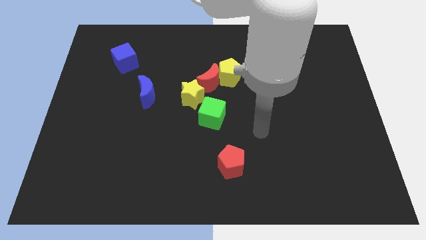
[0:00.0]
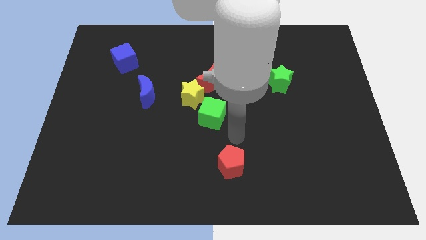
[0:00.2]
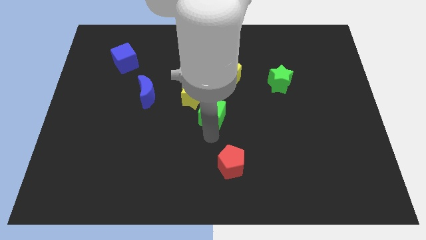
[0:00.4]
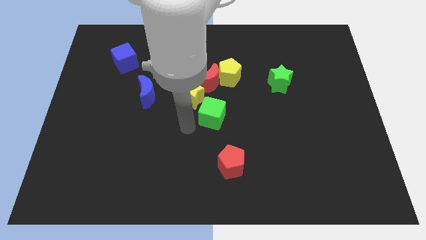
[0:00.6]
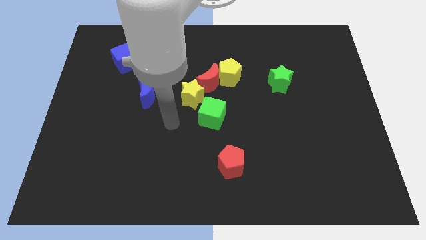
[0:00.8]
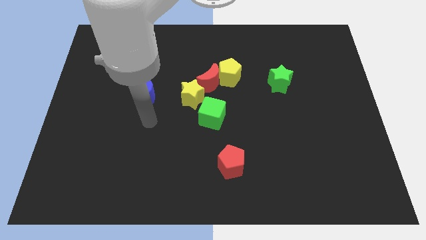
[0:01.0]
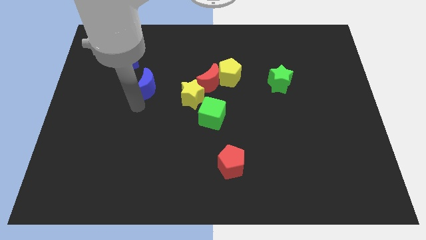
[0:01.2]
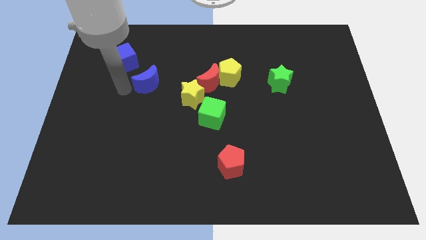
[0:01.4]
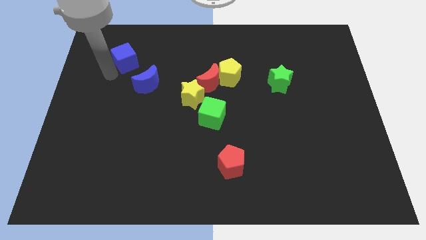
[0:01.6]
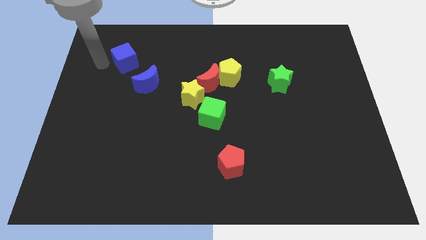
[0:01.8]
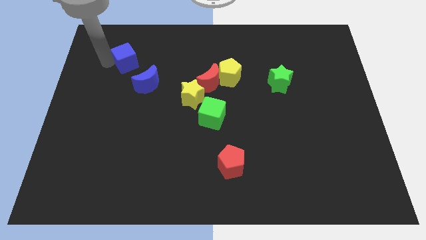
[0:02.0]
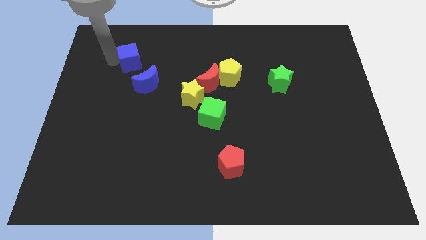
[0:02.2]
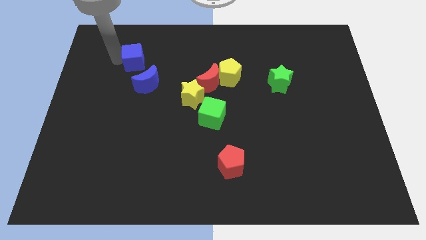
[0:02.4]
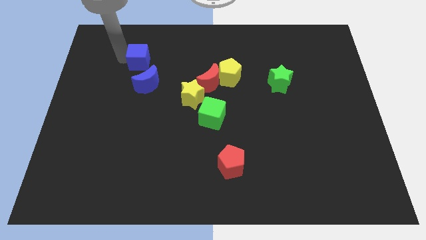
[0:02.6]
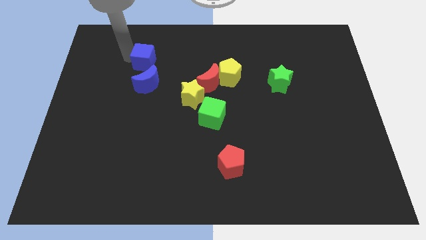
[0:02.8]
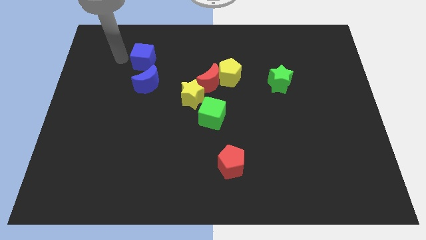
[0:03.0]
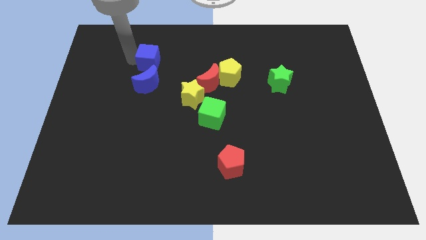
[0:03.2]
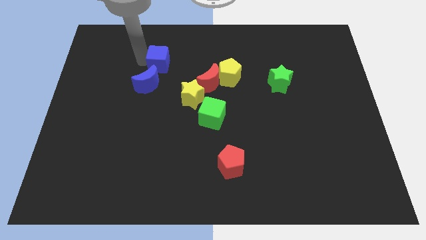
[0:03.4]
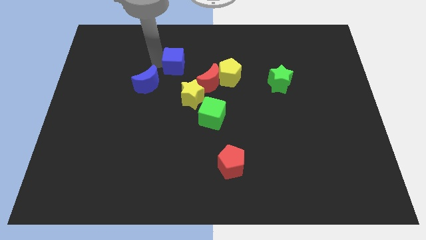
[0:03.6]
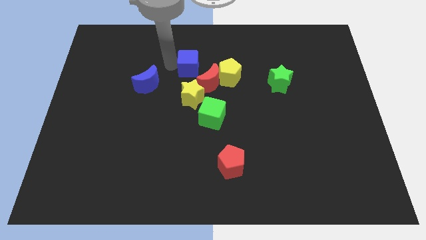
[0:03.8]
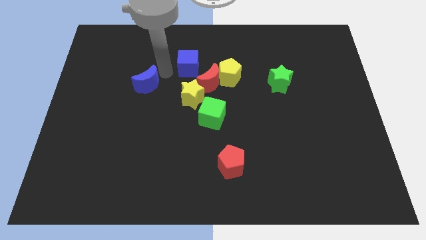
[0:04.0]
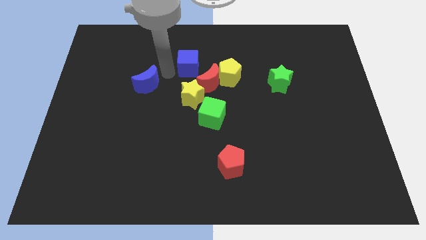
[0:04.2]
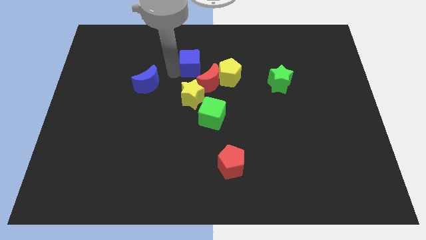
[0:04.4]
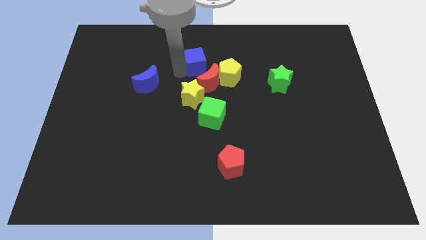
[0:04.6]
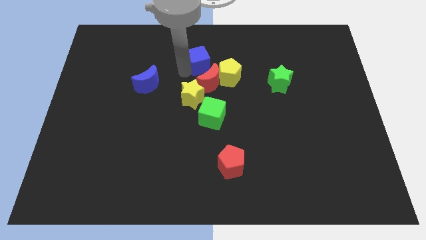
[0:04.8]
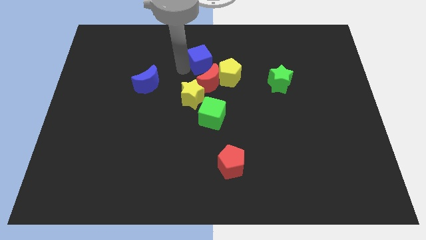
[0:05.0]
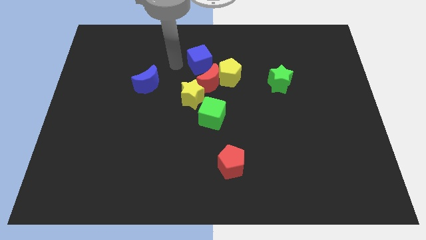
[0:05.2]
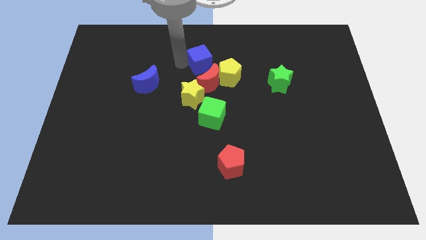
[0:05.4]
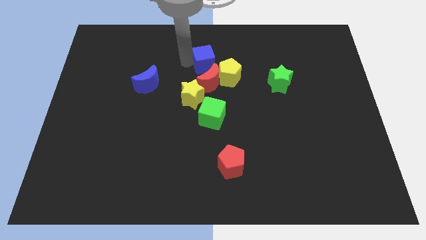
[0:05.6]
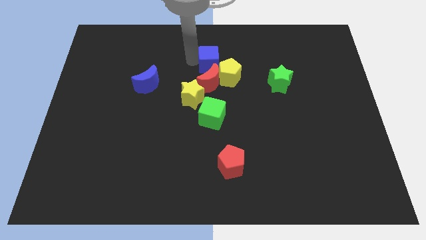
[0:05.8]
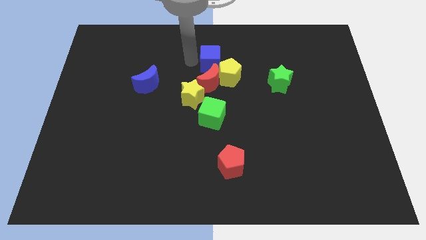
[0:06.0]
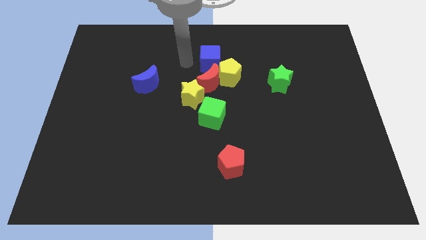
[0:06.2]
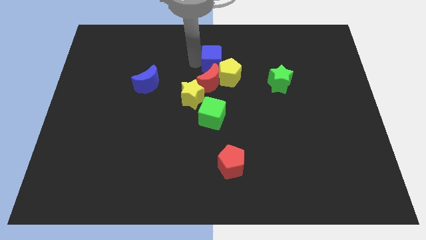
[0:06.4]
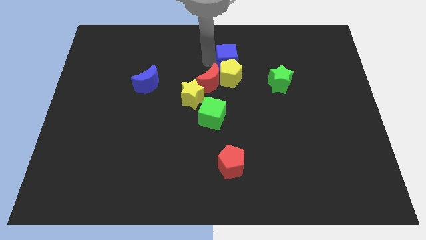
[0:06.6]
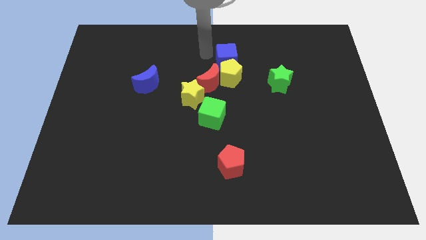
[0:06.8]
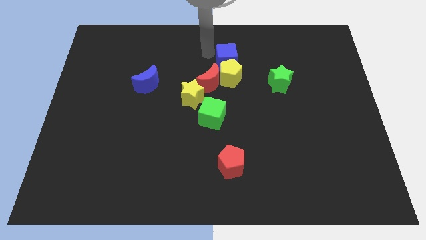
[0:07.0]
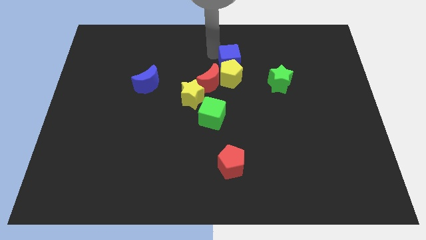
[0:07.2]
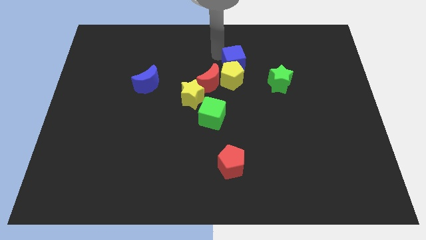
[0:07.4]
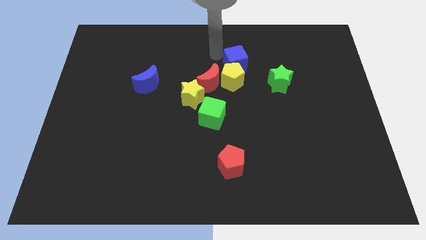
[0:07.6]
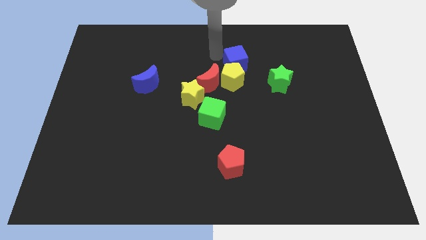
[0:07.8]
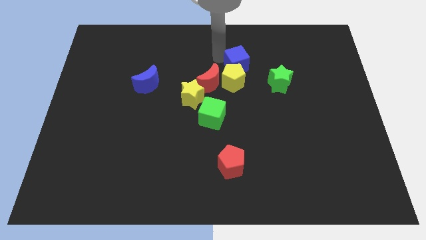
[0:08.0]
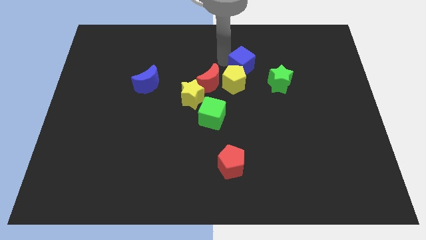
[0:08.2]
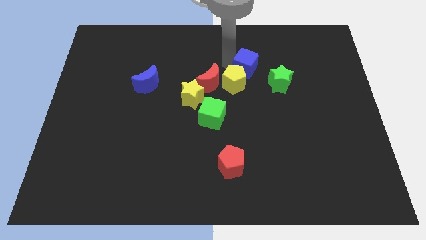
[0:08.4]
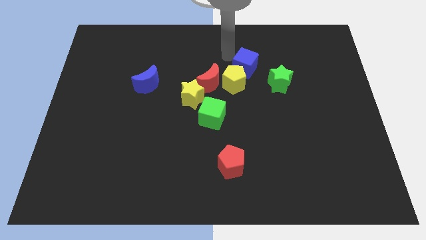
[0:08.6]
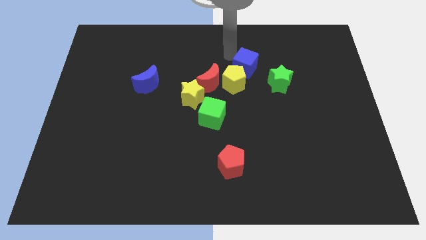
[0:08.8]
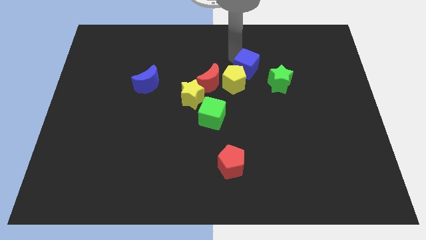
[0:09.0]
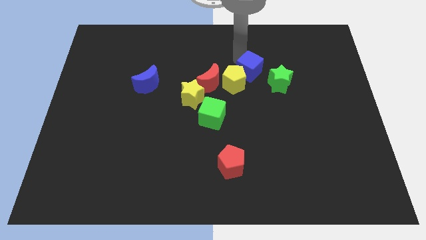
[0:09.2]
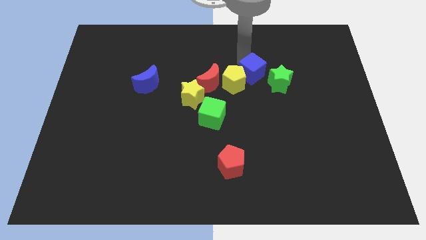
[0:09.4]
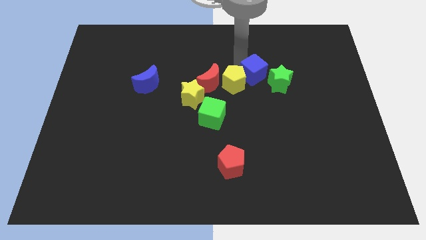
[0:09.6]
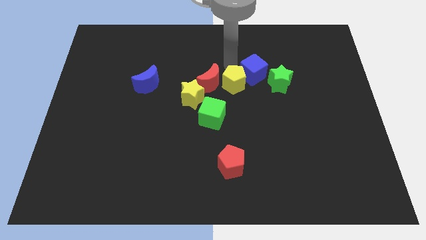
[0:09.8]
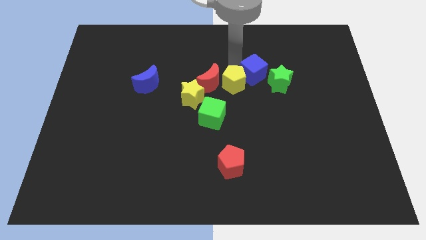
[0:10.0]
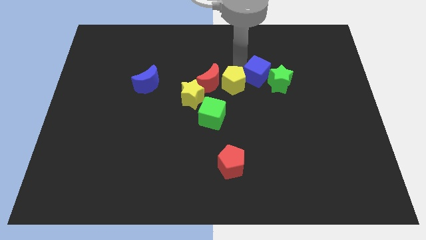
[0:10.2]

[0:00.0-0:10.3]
move the blue cube to the green star

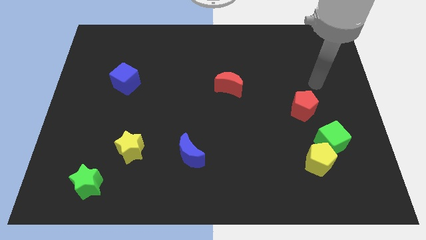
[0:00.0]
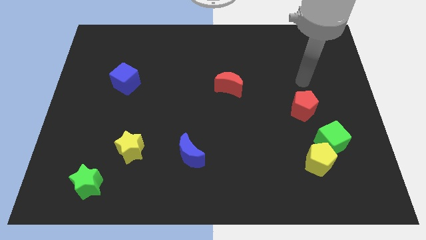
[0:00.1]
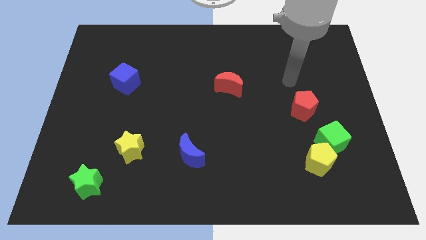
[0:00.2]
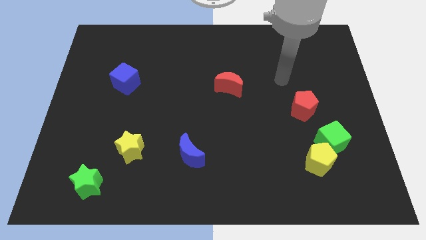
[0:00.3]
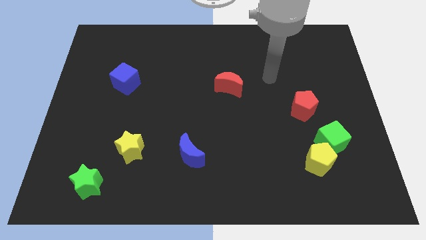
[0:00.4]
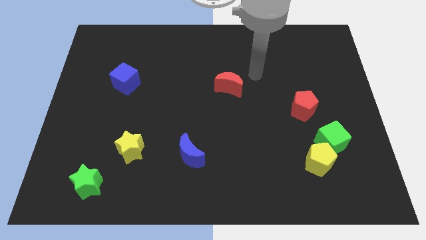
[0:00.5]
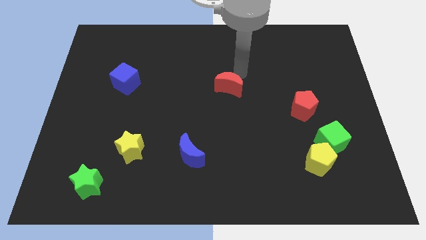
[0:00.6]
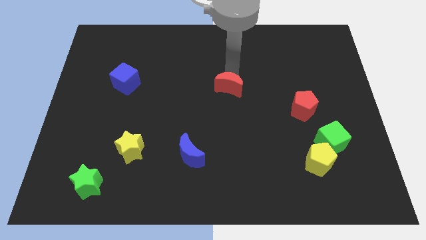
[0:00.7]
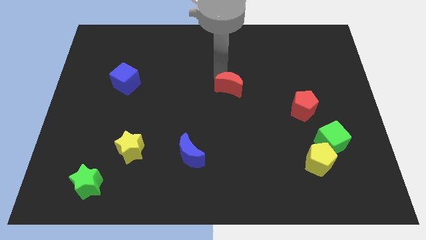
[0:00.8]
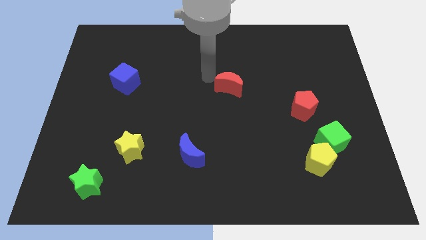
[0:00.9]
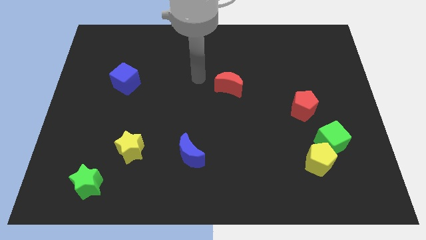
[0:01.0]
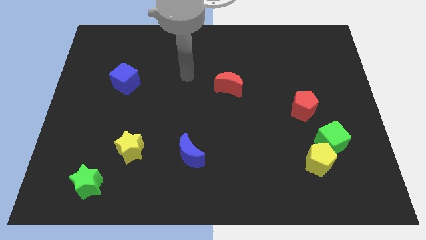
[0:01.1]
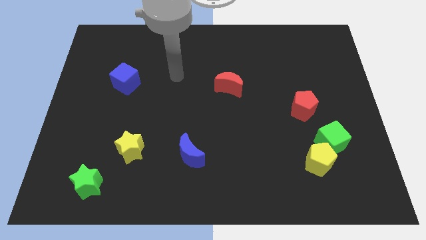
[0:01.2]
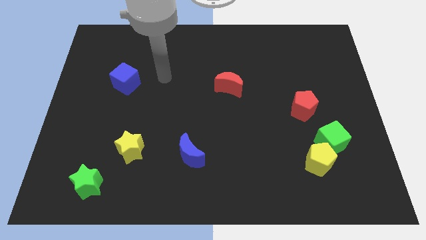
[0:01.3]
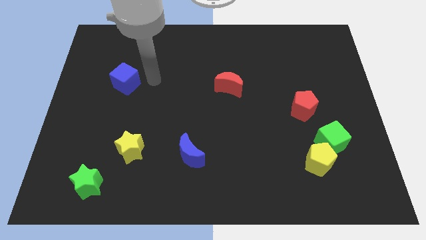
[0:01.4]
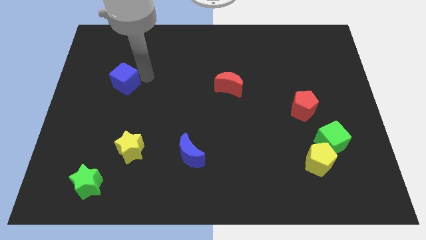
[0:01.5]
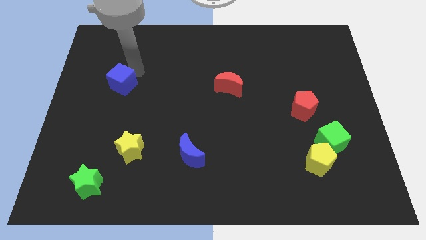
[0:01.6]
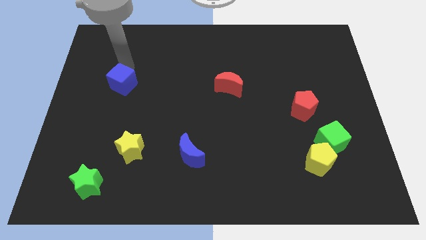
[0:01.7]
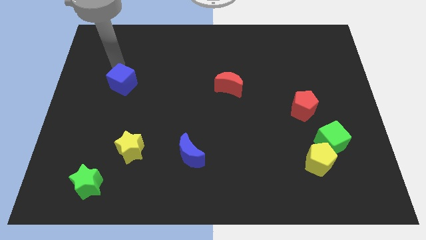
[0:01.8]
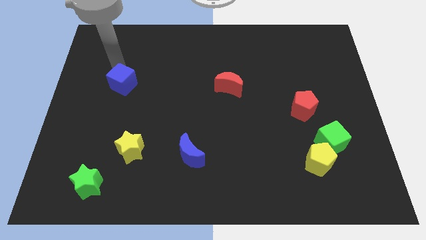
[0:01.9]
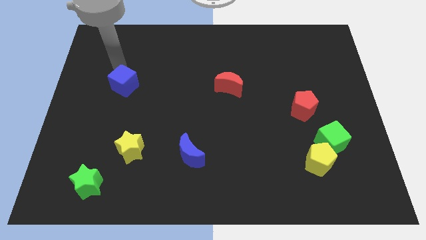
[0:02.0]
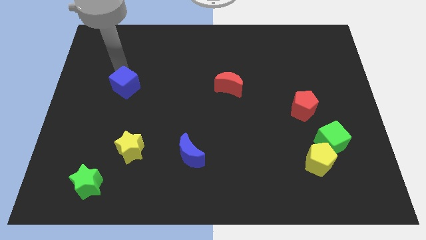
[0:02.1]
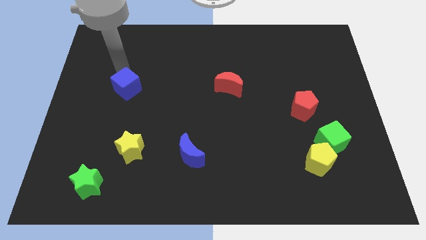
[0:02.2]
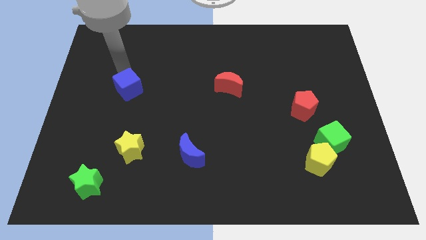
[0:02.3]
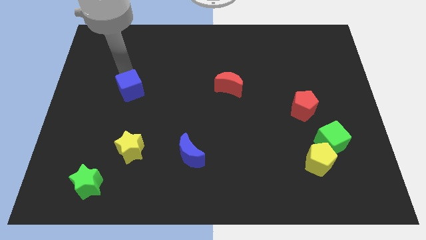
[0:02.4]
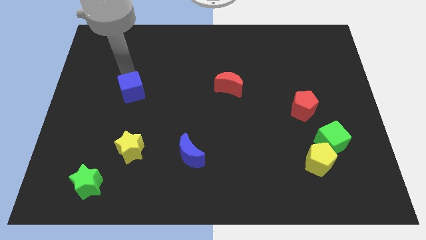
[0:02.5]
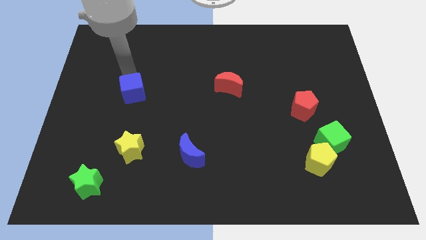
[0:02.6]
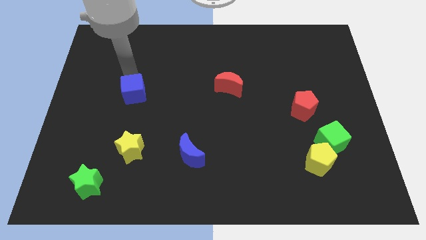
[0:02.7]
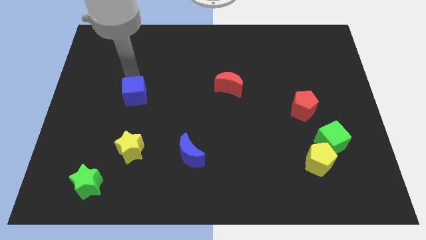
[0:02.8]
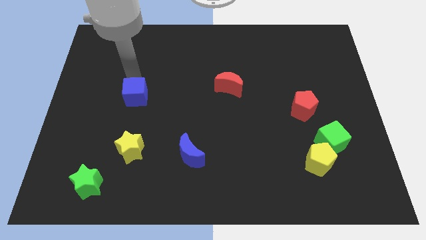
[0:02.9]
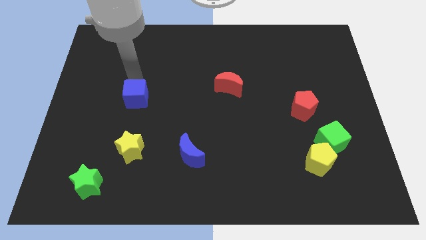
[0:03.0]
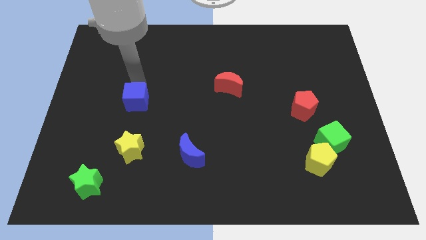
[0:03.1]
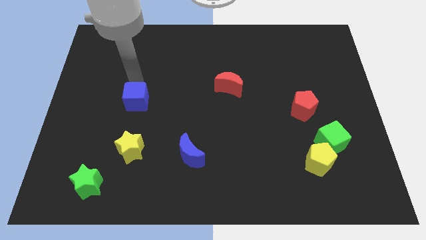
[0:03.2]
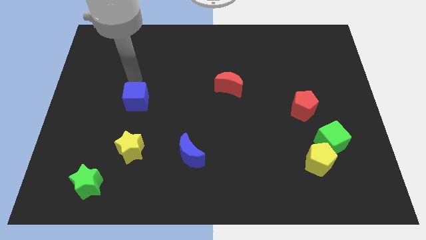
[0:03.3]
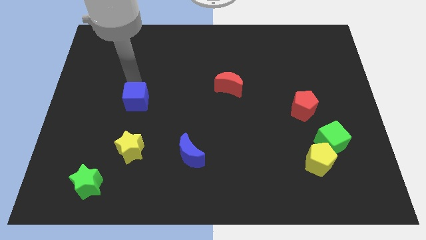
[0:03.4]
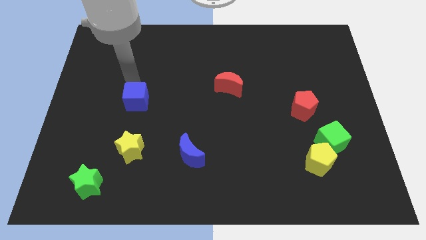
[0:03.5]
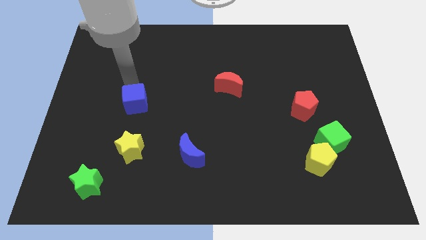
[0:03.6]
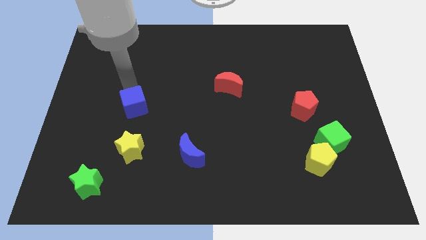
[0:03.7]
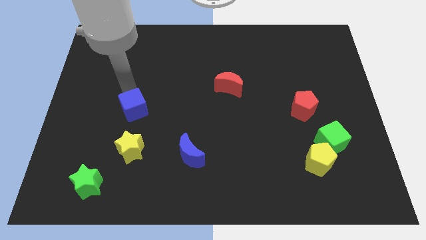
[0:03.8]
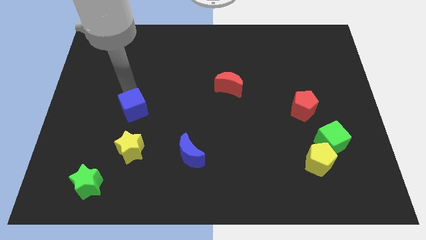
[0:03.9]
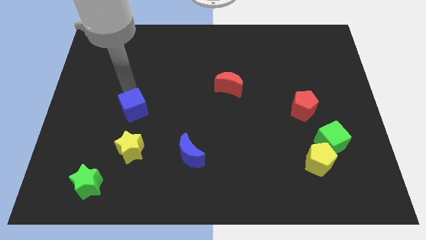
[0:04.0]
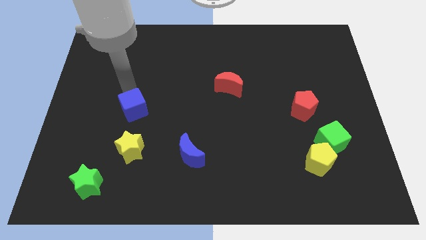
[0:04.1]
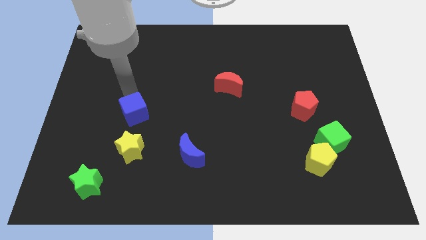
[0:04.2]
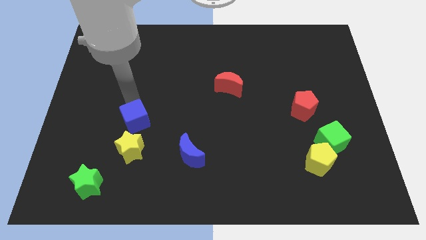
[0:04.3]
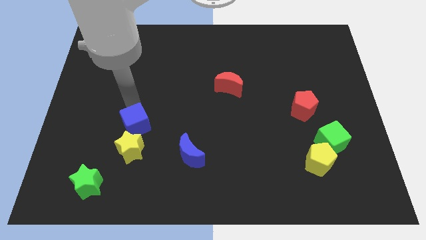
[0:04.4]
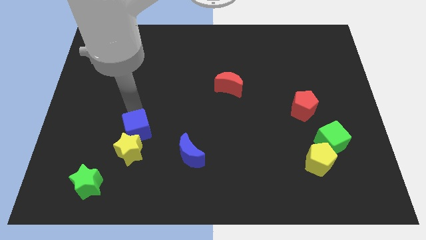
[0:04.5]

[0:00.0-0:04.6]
move the blue cube next to the yellow star
